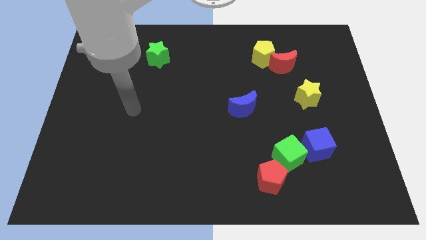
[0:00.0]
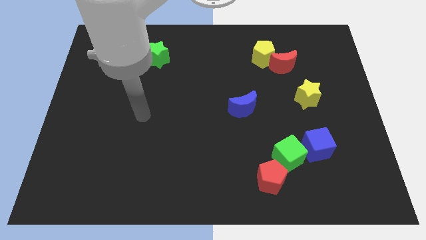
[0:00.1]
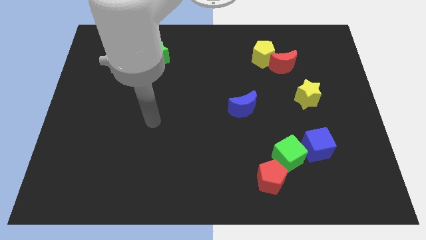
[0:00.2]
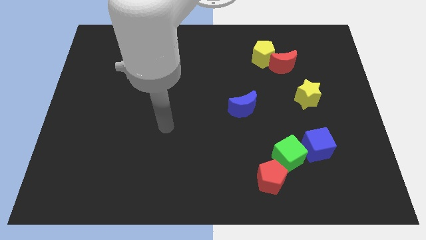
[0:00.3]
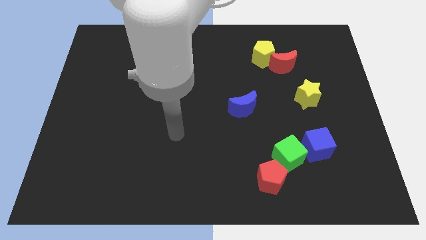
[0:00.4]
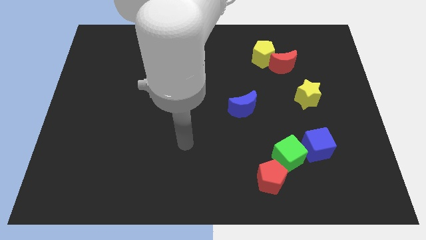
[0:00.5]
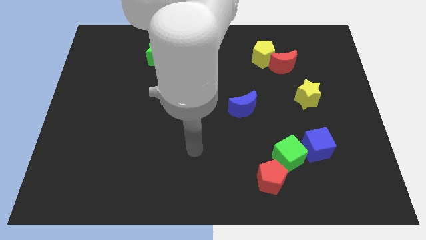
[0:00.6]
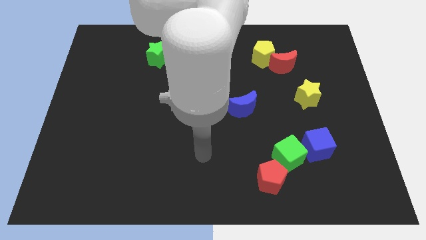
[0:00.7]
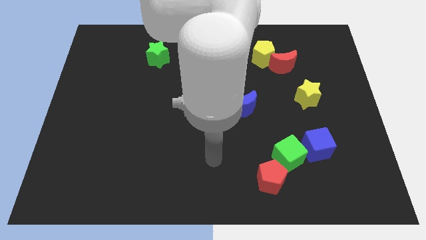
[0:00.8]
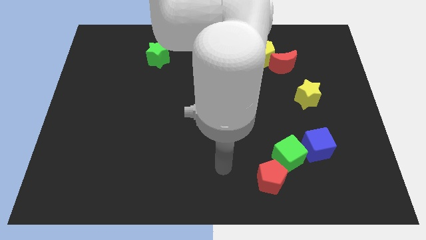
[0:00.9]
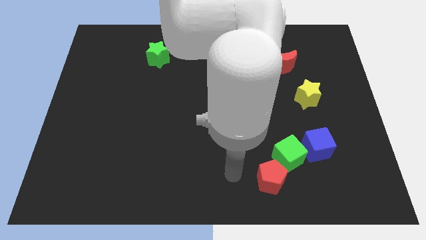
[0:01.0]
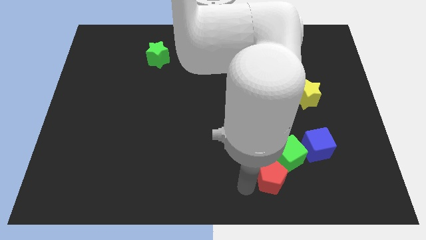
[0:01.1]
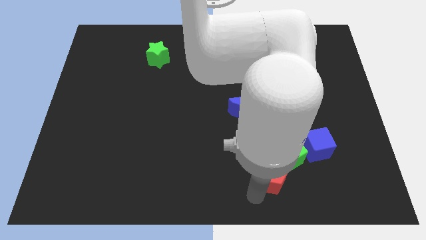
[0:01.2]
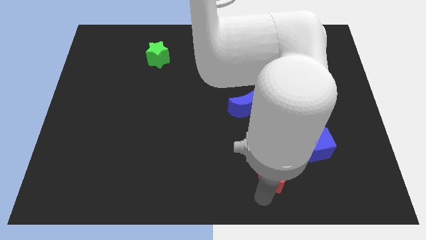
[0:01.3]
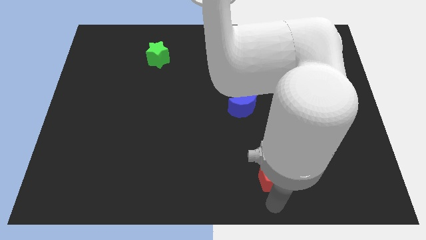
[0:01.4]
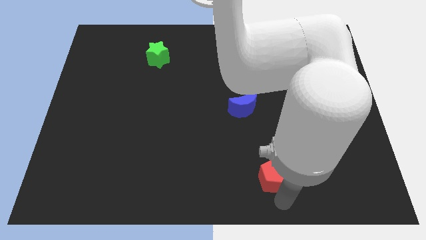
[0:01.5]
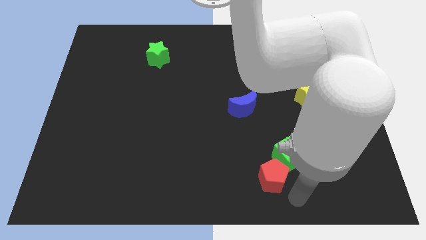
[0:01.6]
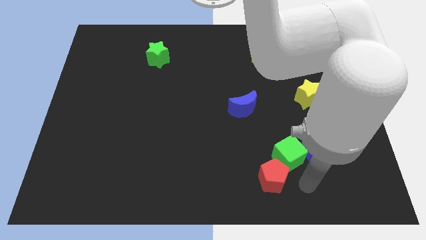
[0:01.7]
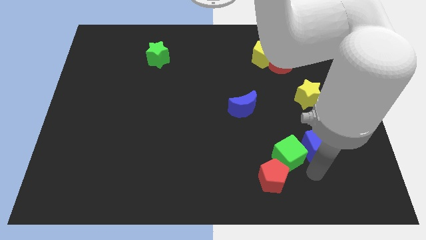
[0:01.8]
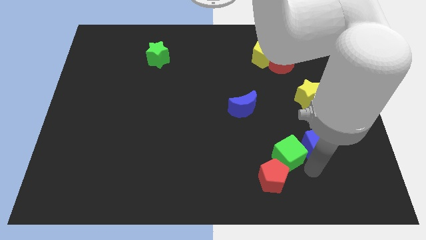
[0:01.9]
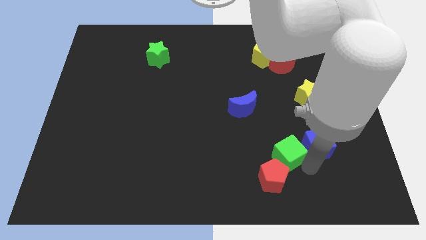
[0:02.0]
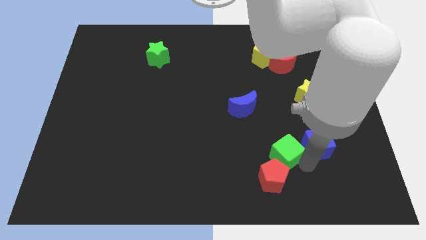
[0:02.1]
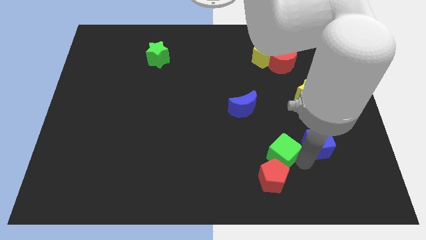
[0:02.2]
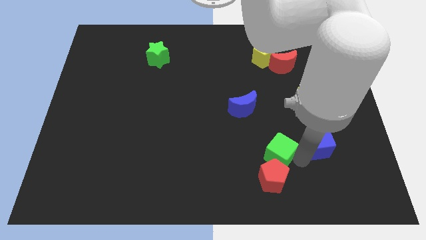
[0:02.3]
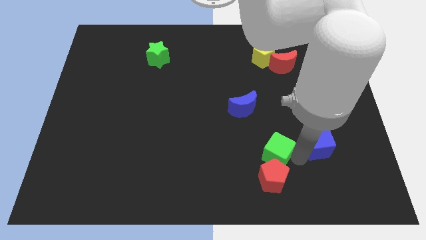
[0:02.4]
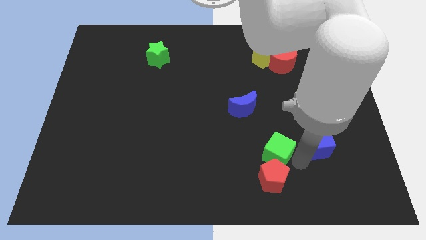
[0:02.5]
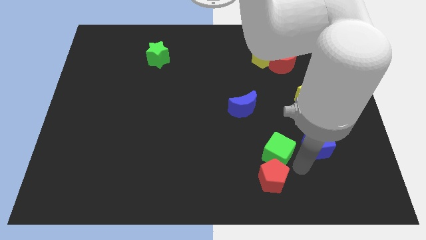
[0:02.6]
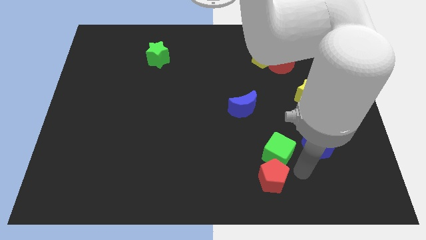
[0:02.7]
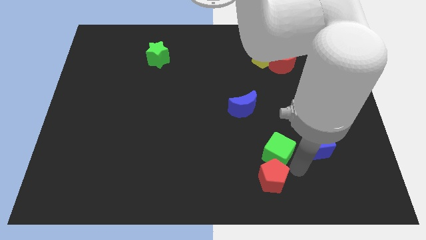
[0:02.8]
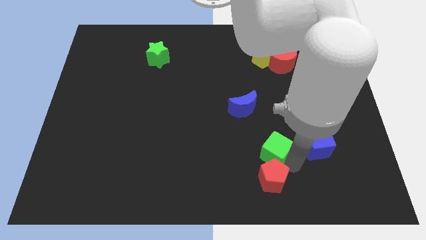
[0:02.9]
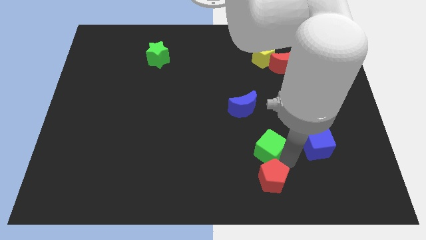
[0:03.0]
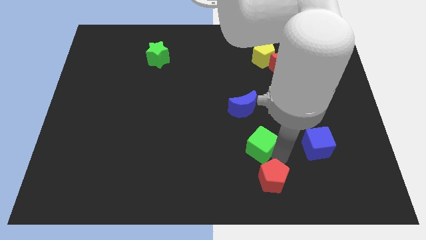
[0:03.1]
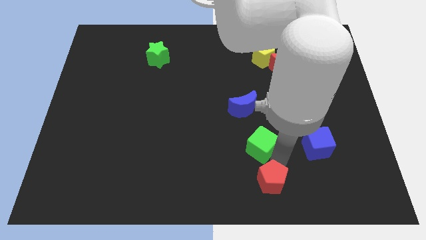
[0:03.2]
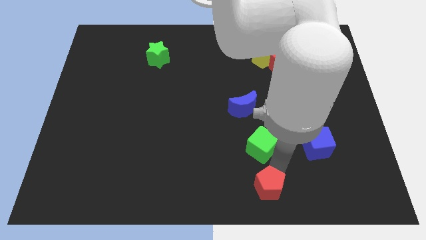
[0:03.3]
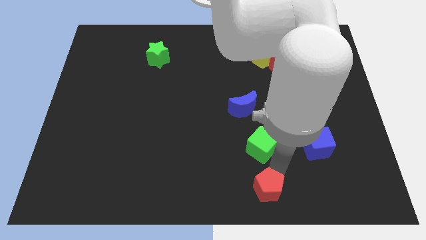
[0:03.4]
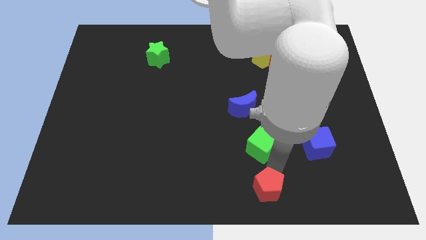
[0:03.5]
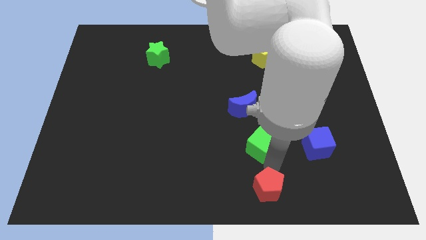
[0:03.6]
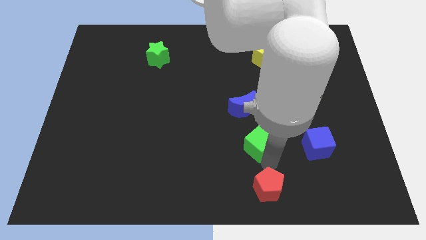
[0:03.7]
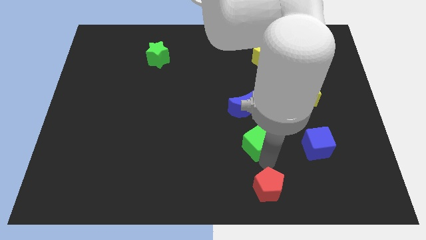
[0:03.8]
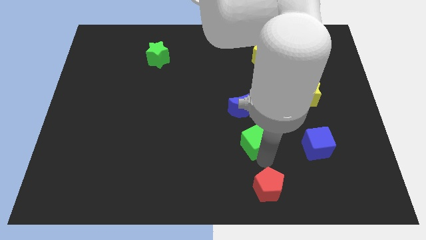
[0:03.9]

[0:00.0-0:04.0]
move the green cube a little bit upwards and to the left diagonally

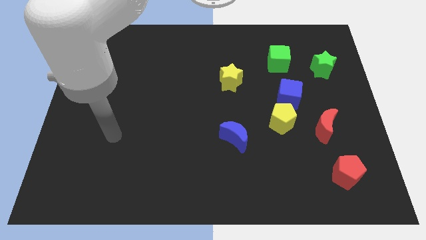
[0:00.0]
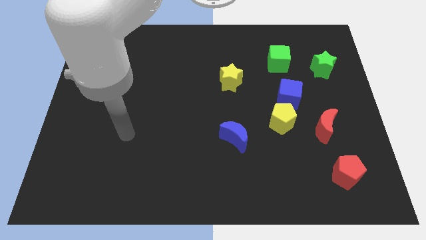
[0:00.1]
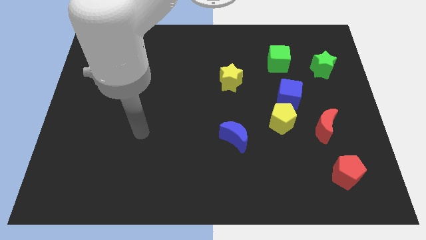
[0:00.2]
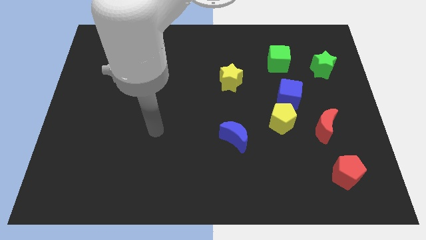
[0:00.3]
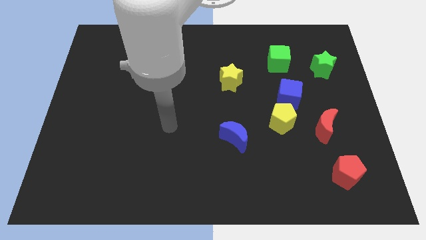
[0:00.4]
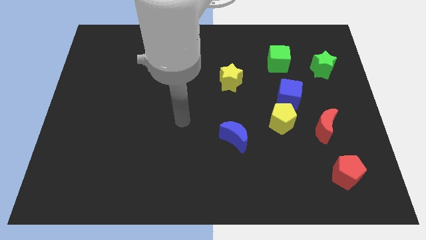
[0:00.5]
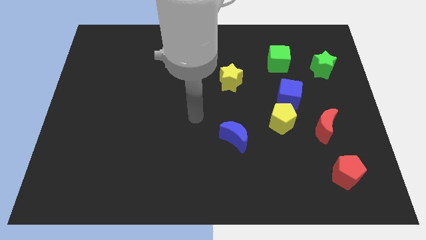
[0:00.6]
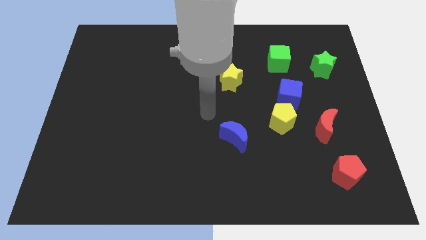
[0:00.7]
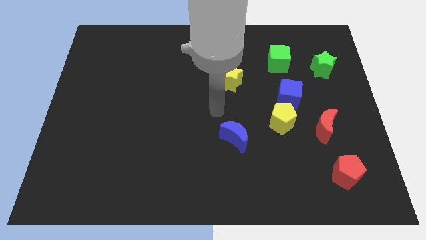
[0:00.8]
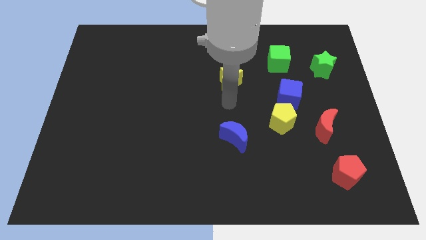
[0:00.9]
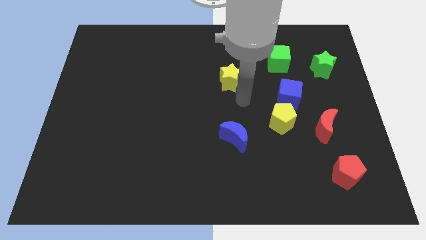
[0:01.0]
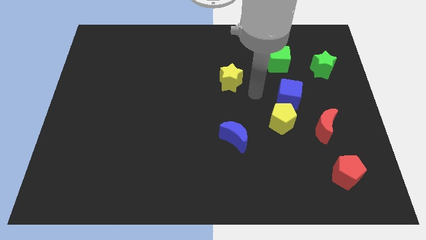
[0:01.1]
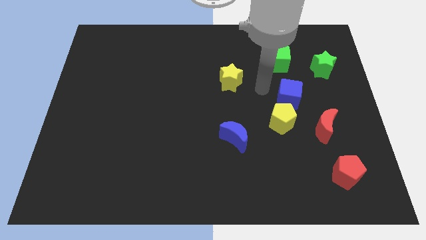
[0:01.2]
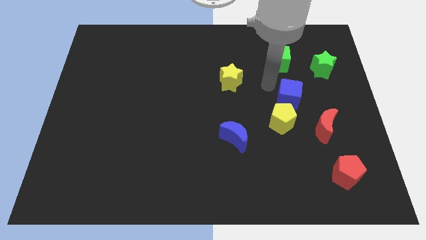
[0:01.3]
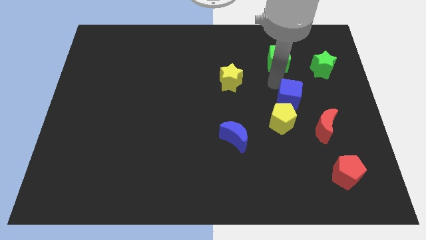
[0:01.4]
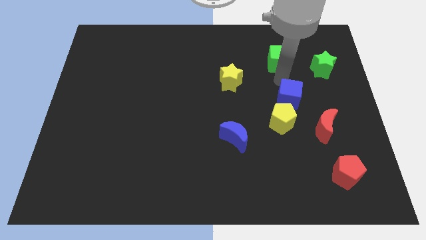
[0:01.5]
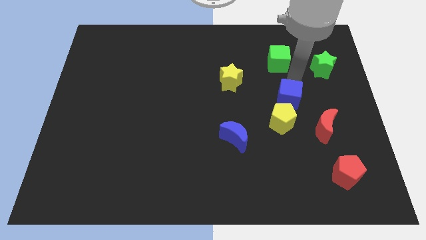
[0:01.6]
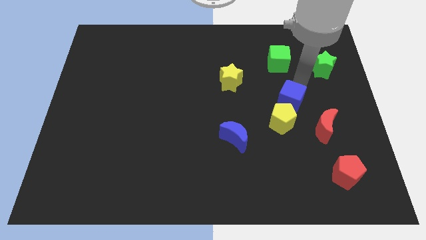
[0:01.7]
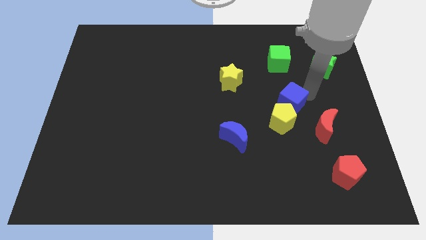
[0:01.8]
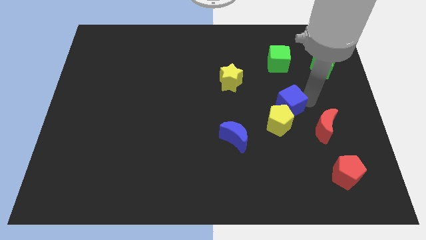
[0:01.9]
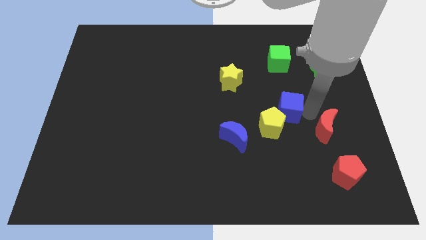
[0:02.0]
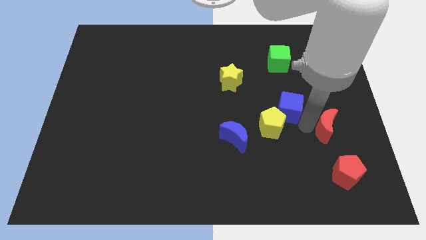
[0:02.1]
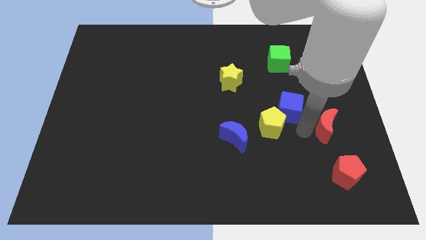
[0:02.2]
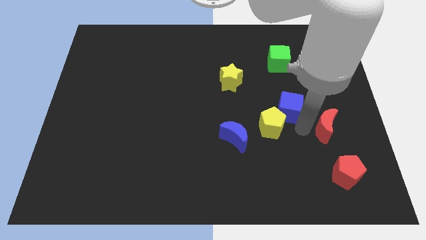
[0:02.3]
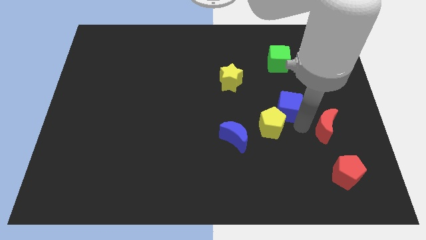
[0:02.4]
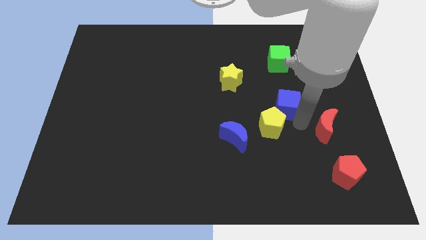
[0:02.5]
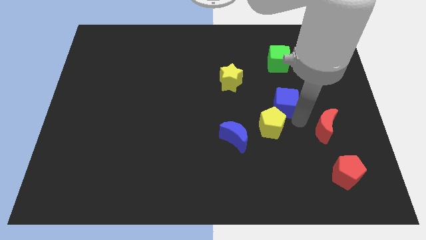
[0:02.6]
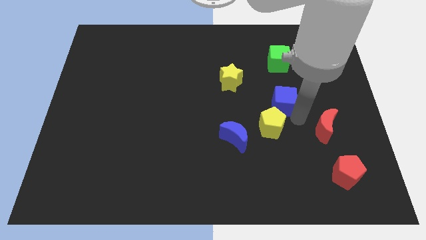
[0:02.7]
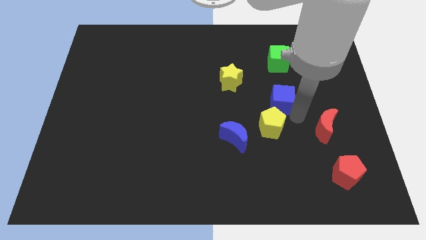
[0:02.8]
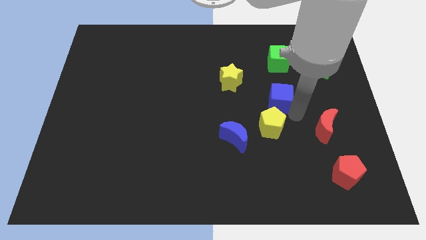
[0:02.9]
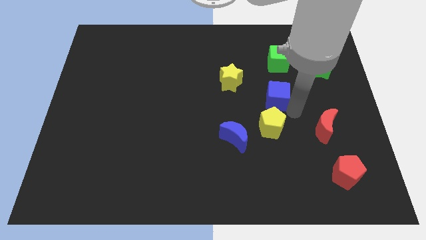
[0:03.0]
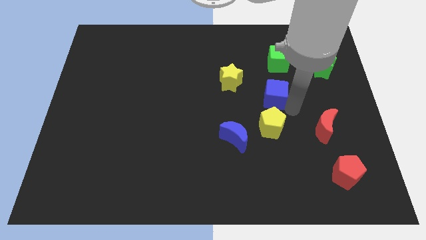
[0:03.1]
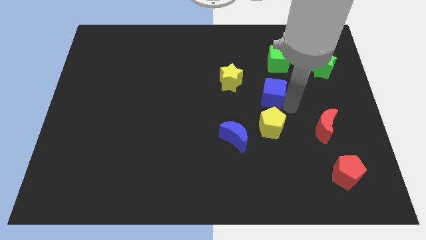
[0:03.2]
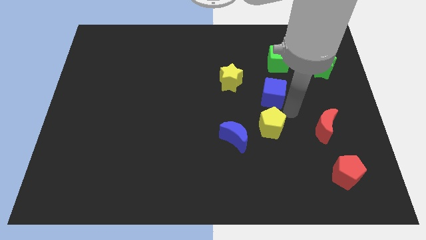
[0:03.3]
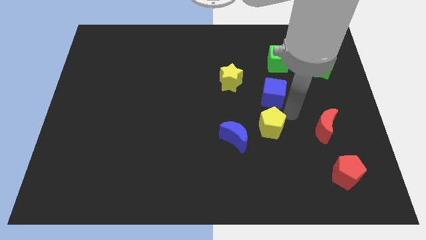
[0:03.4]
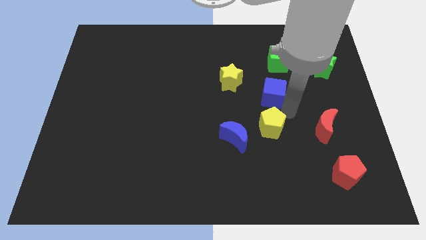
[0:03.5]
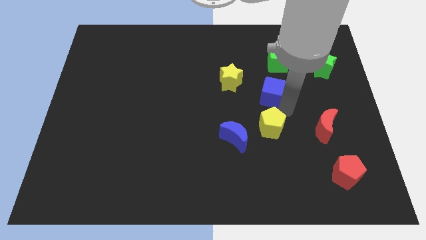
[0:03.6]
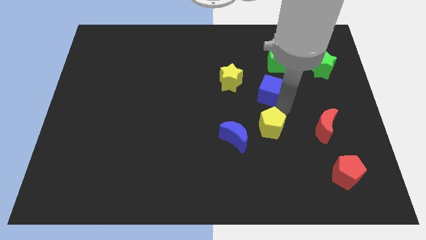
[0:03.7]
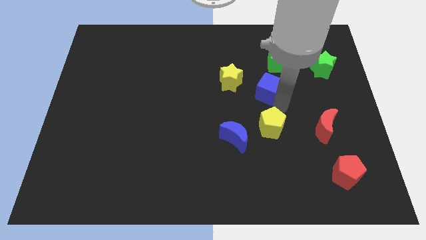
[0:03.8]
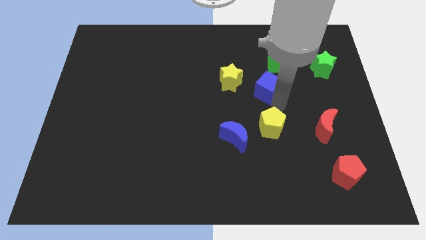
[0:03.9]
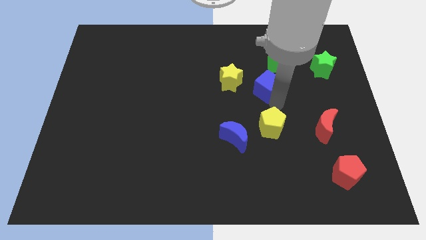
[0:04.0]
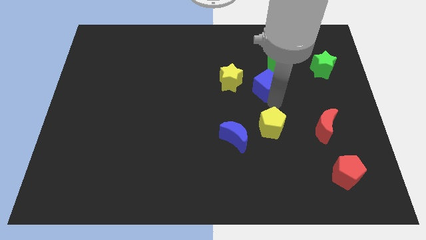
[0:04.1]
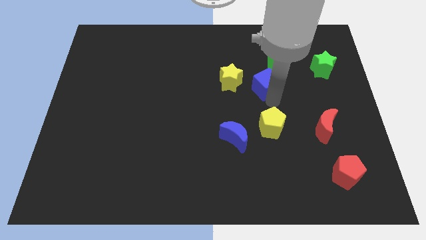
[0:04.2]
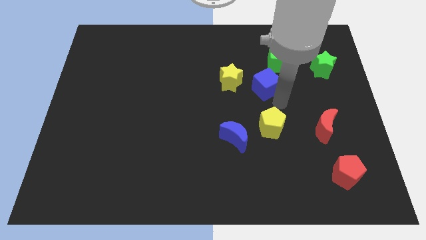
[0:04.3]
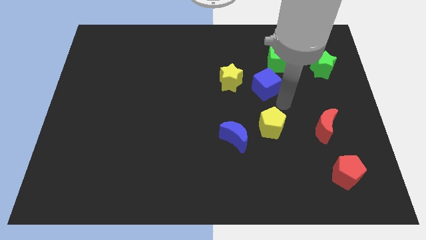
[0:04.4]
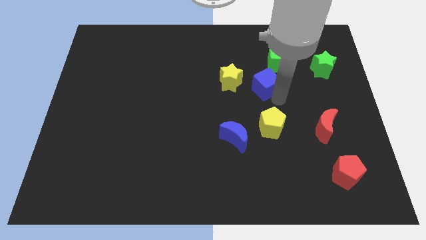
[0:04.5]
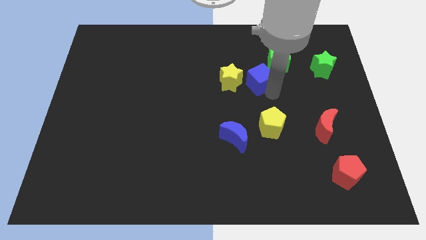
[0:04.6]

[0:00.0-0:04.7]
slightly move the blue cube upwards and left
